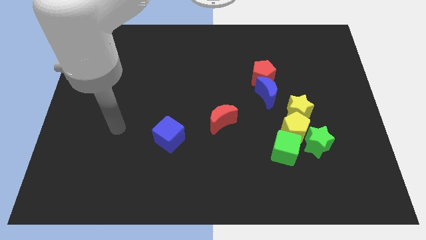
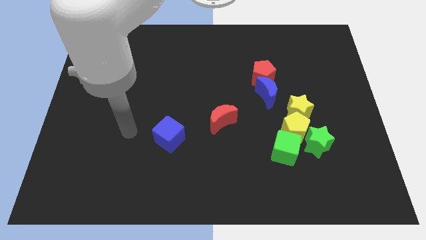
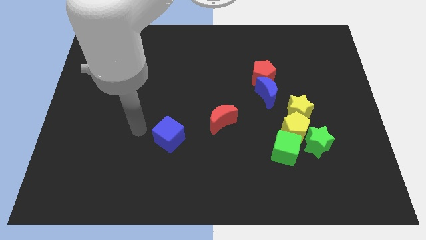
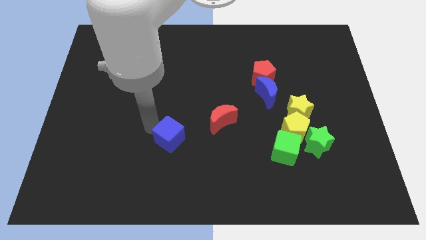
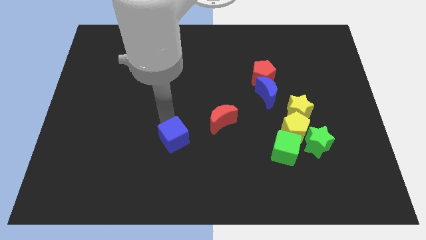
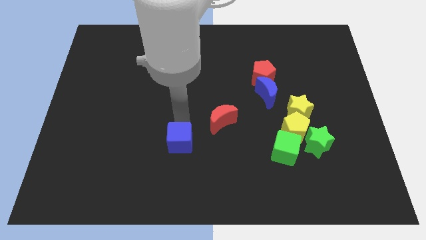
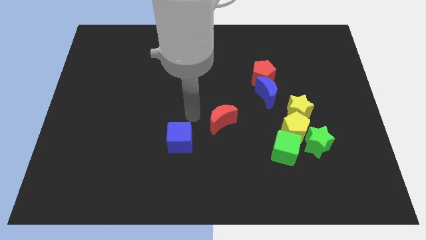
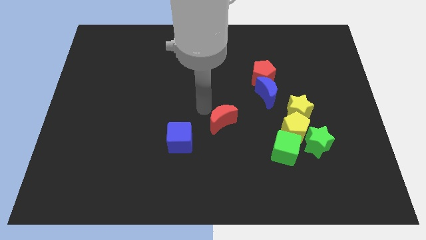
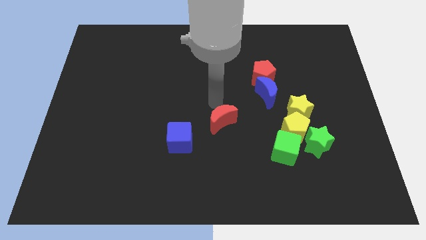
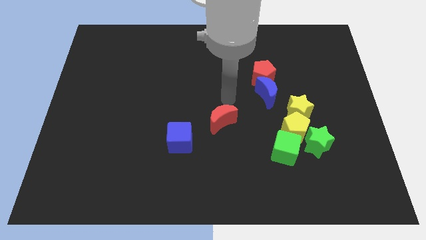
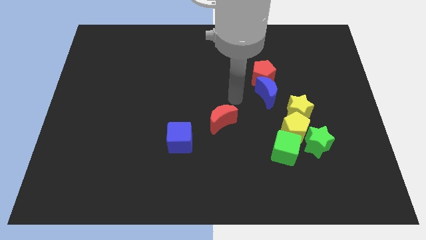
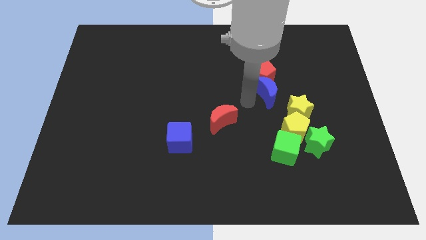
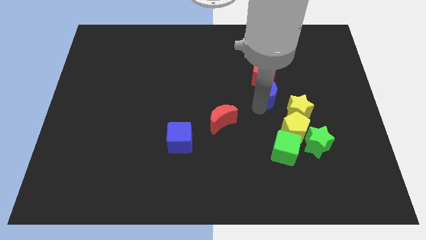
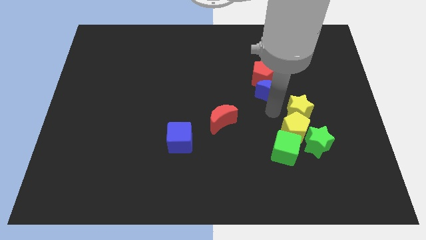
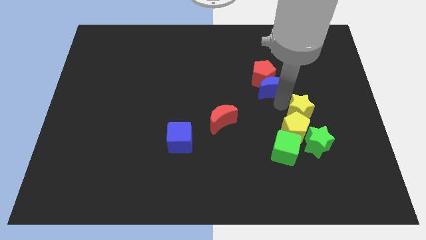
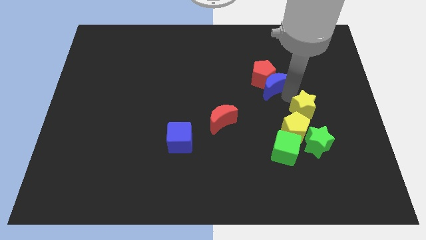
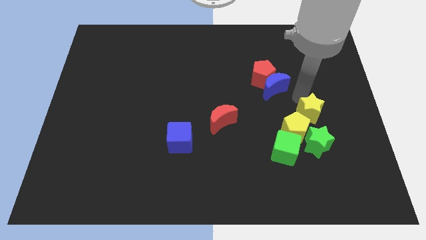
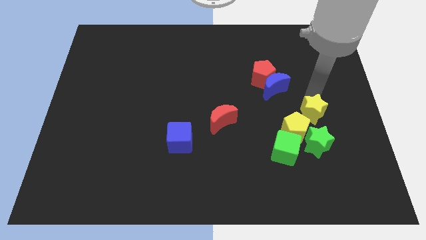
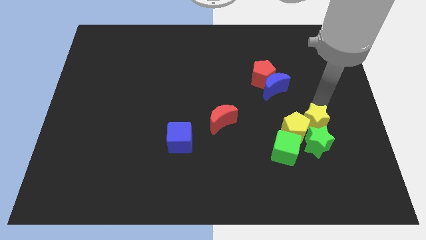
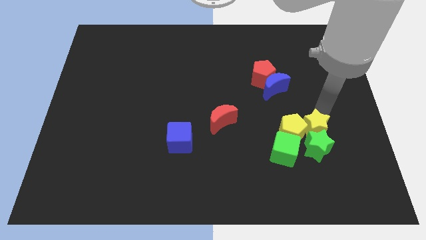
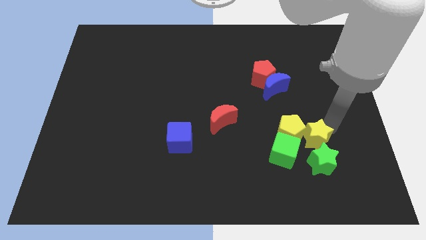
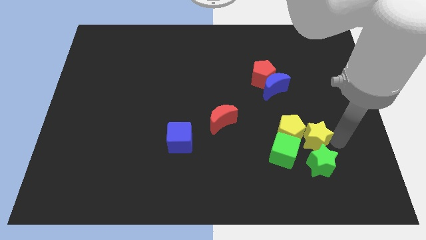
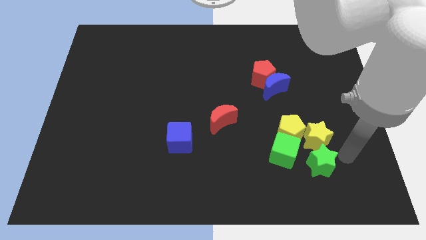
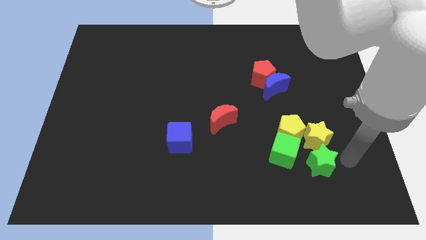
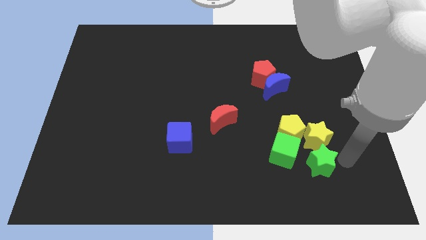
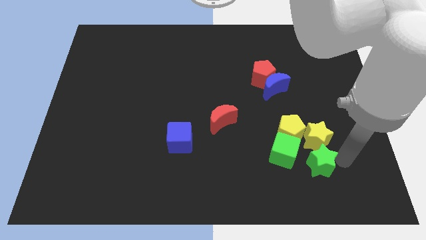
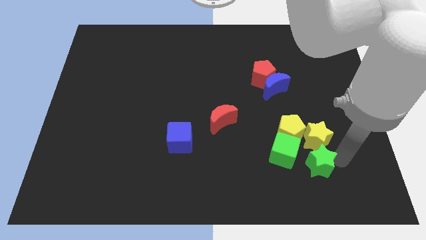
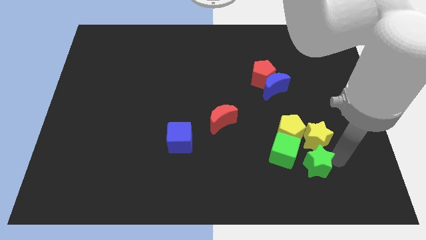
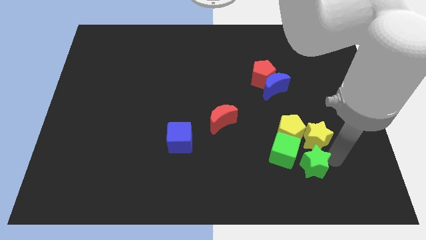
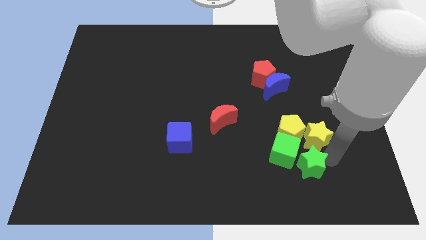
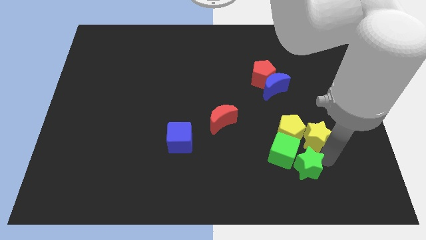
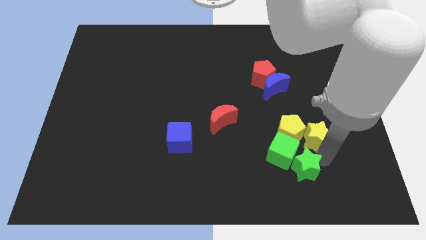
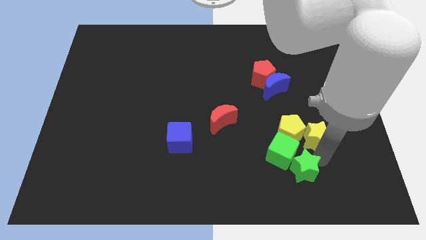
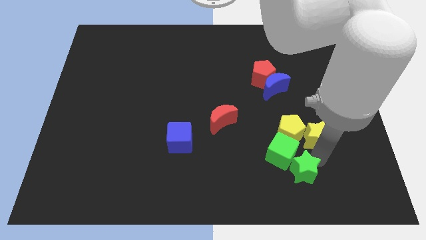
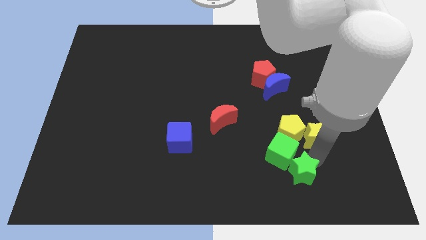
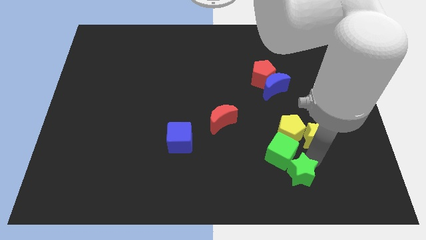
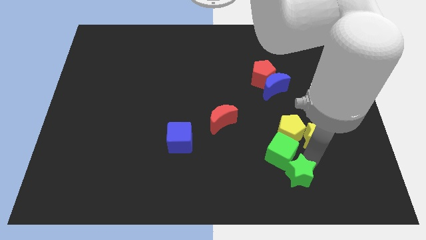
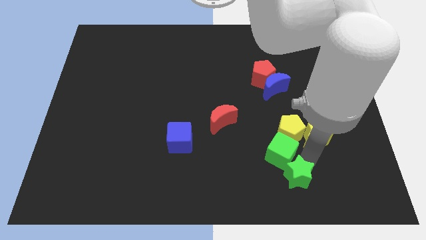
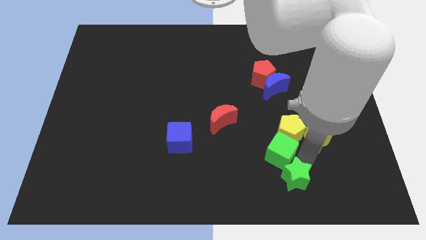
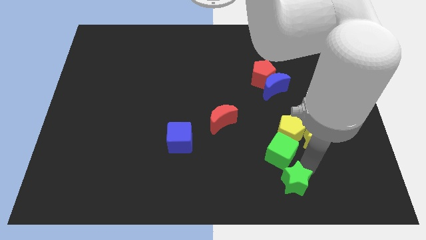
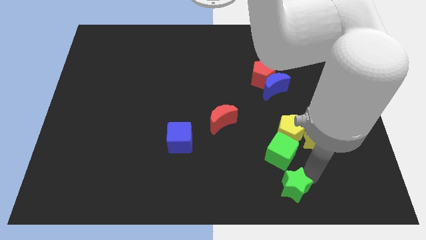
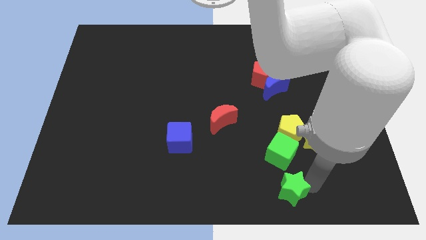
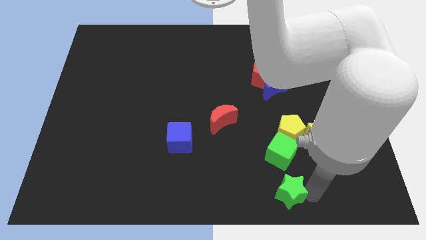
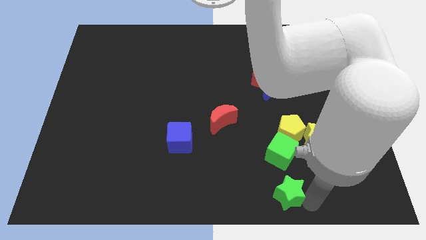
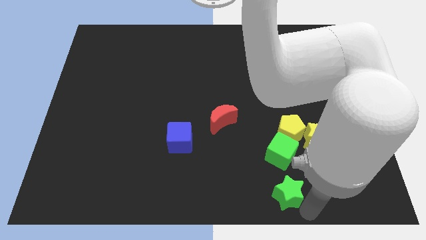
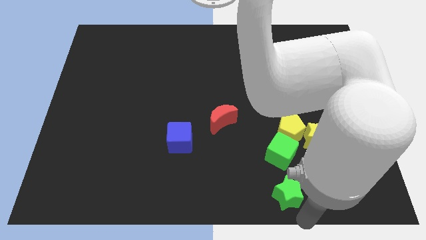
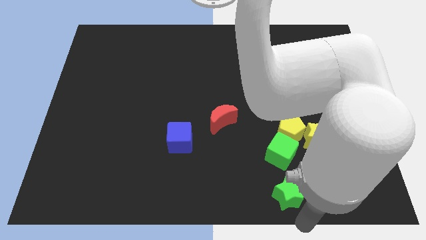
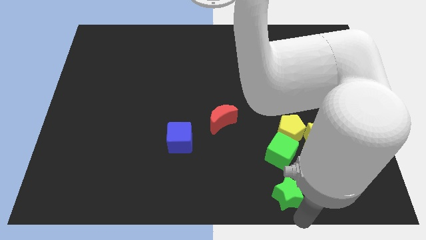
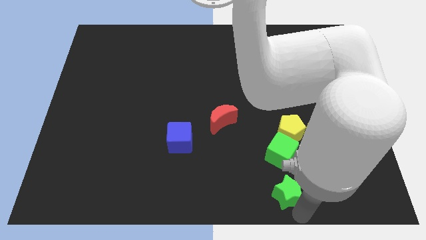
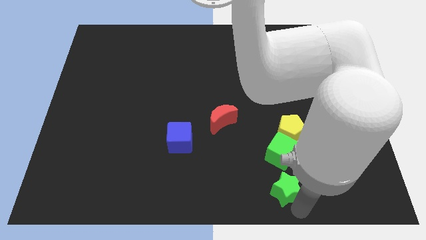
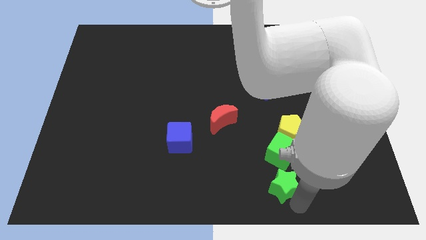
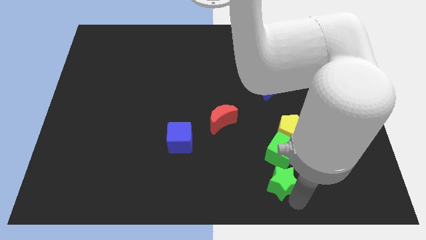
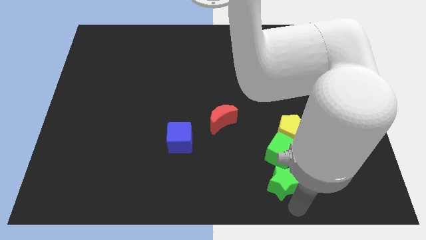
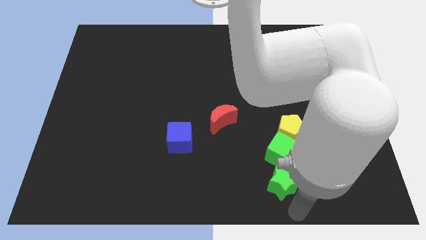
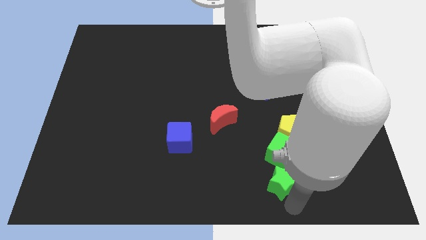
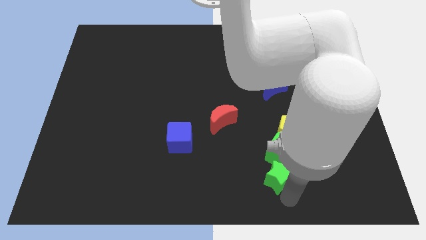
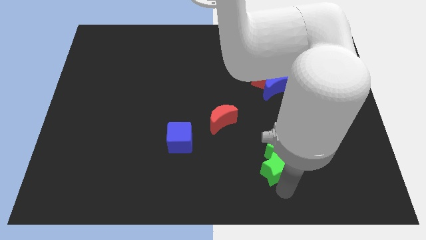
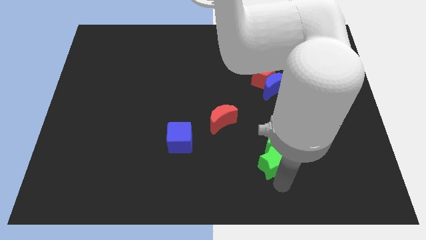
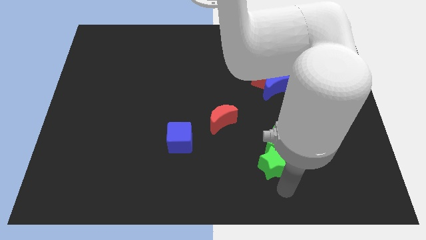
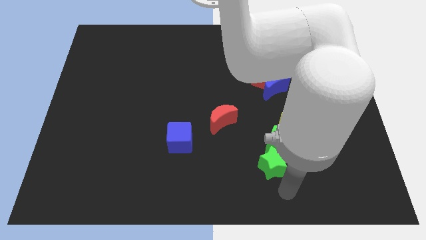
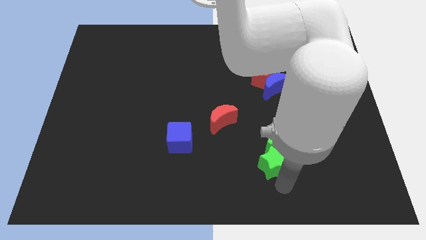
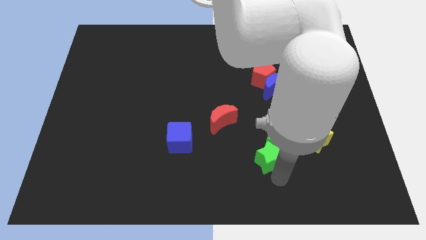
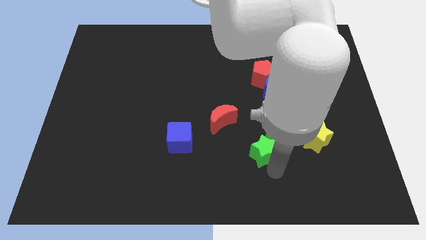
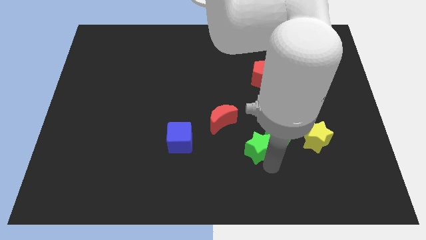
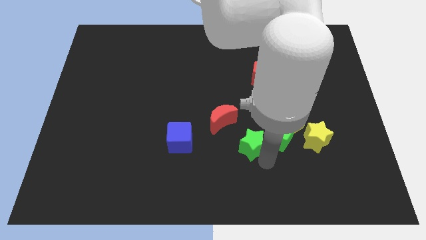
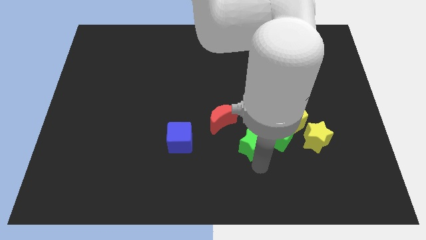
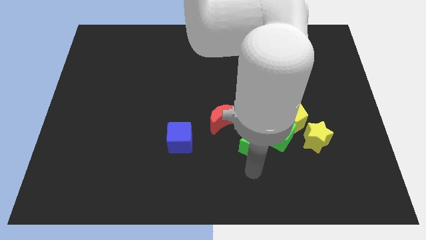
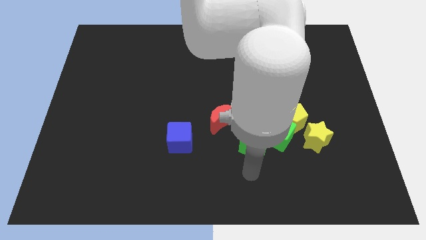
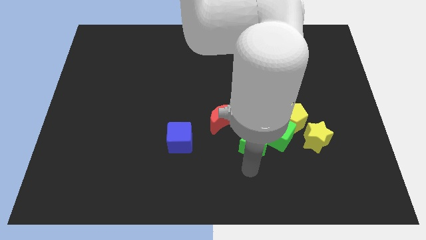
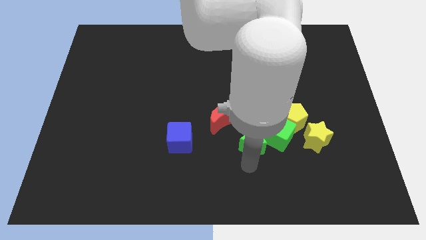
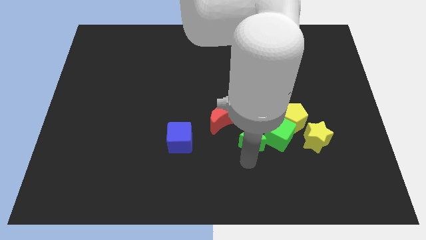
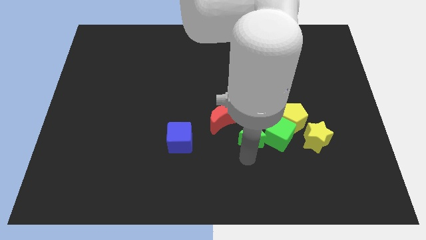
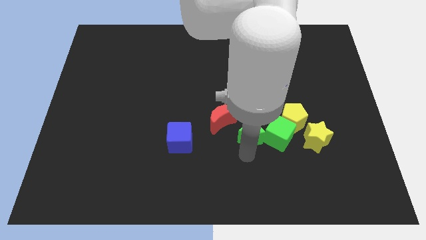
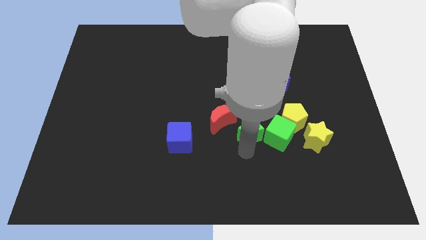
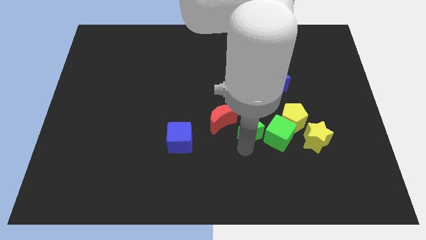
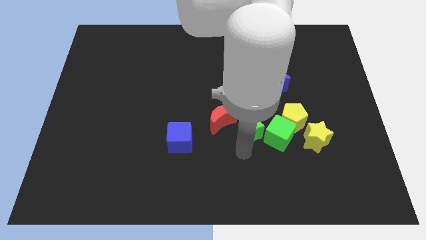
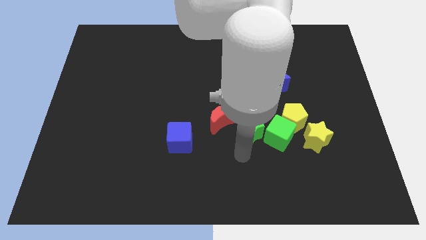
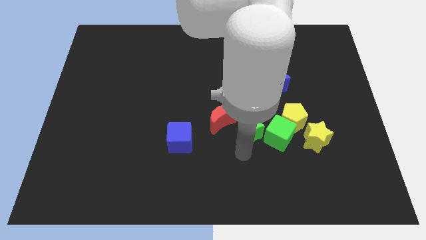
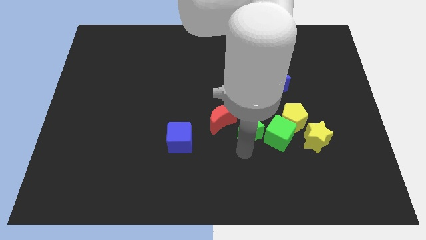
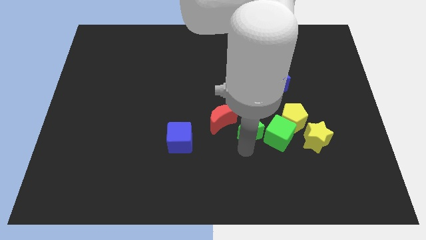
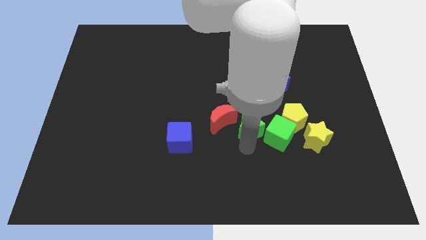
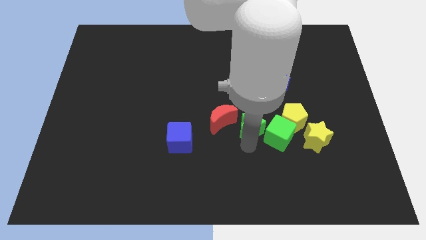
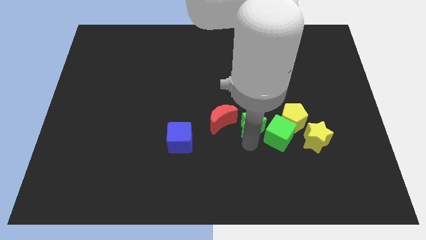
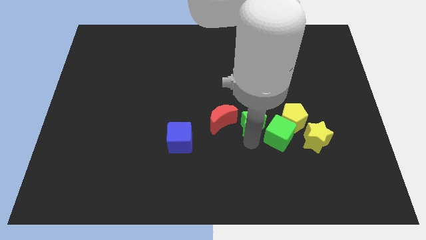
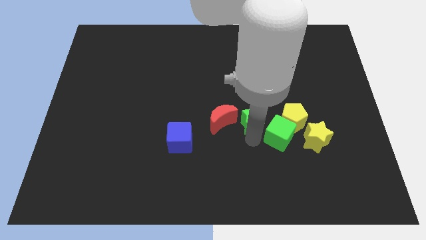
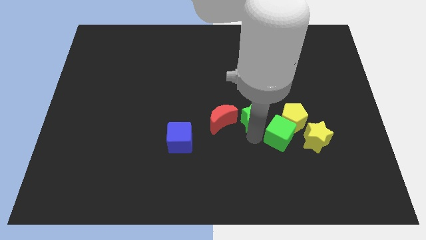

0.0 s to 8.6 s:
put the green star diagonally up and to the right of the red moon
